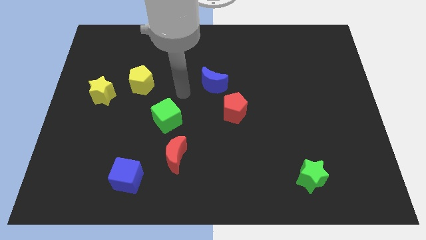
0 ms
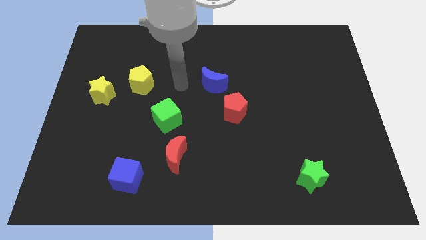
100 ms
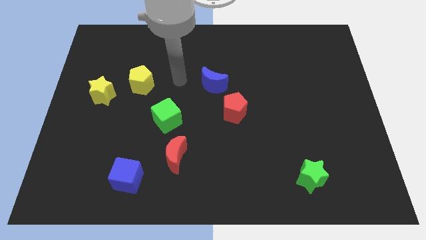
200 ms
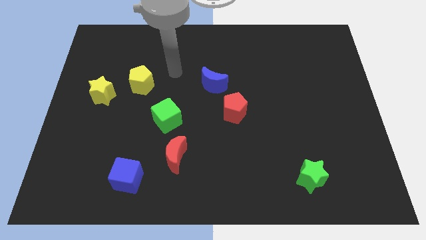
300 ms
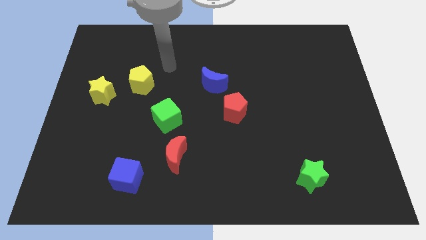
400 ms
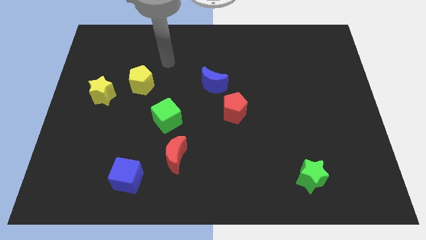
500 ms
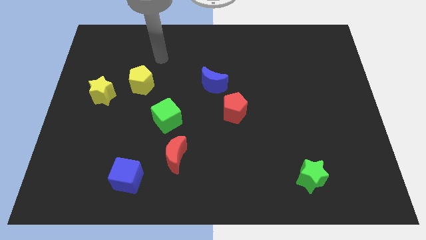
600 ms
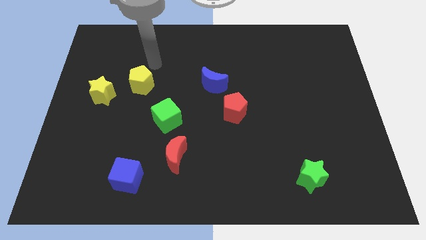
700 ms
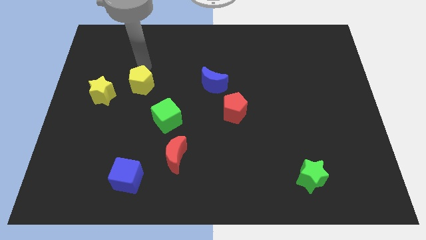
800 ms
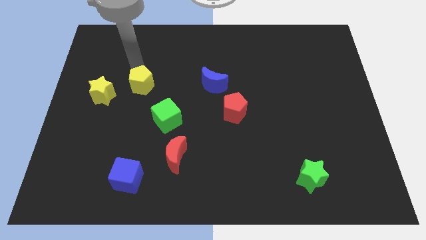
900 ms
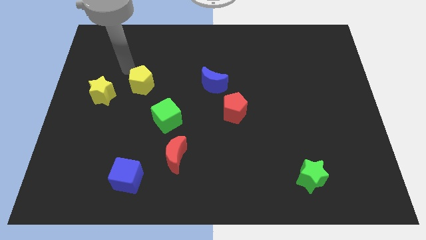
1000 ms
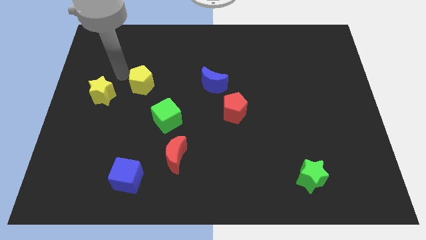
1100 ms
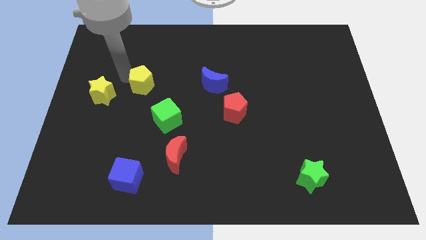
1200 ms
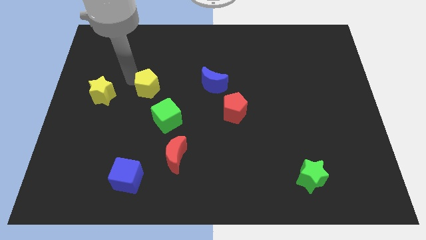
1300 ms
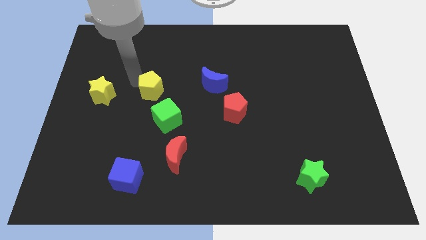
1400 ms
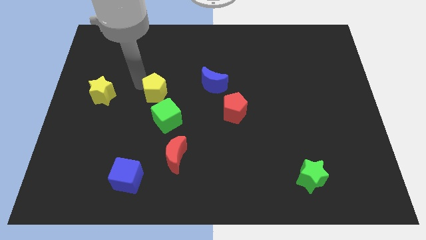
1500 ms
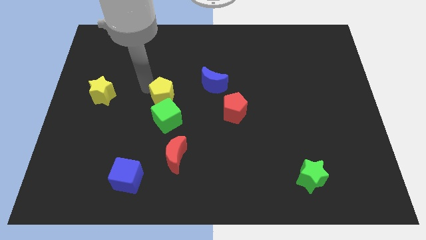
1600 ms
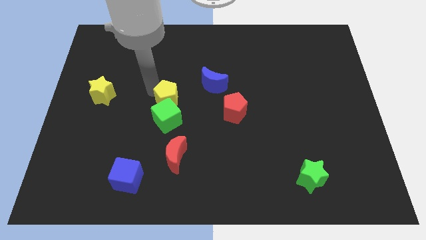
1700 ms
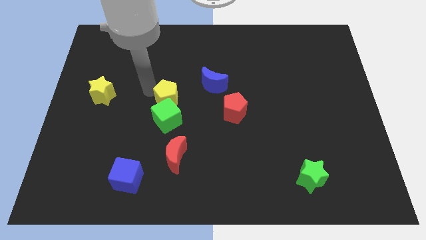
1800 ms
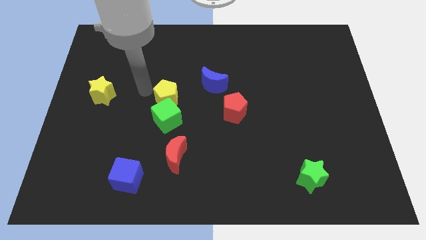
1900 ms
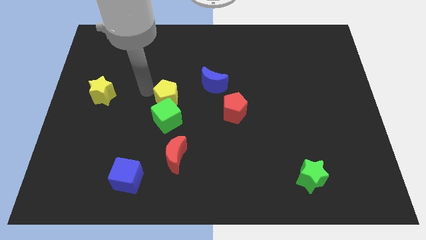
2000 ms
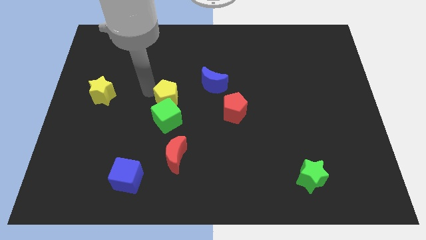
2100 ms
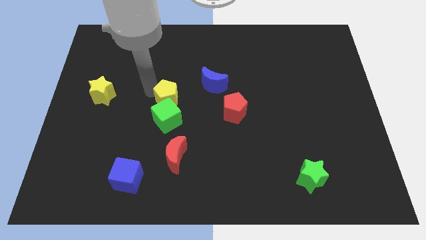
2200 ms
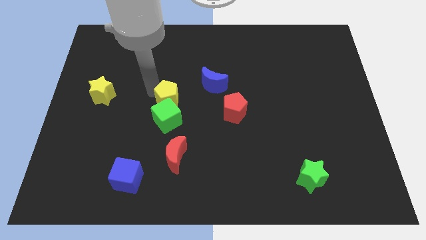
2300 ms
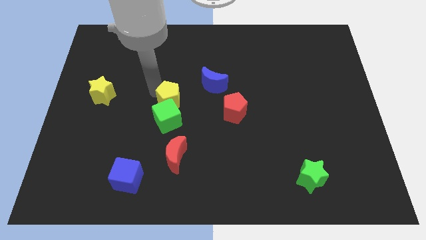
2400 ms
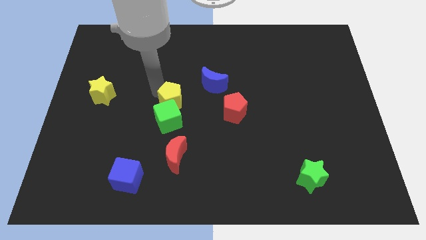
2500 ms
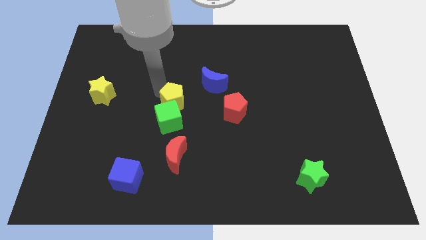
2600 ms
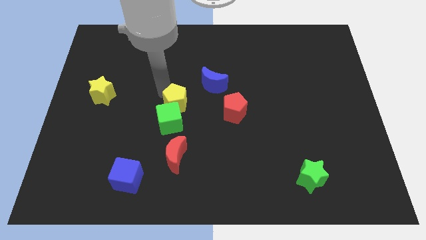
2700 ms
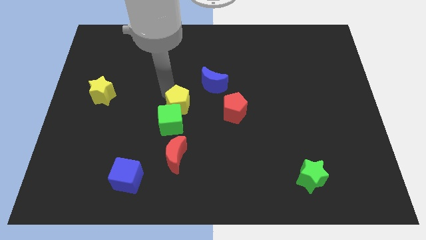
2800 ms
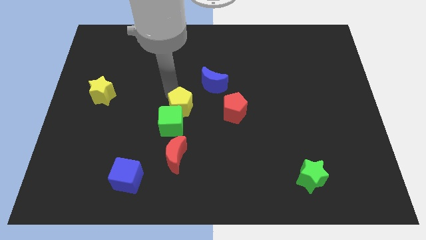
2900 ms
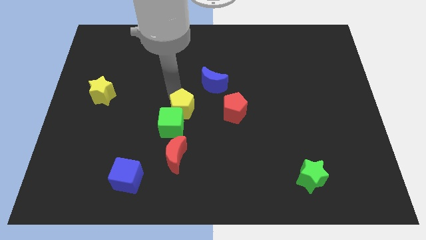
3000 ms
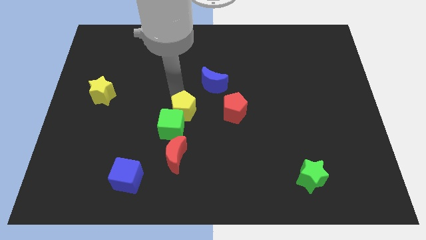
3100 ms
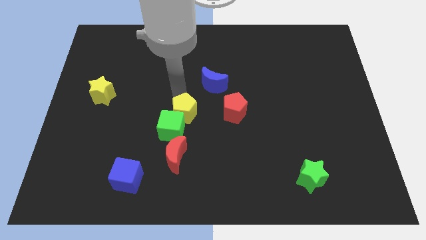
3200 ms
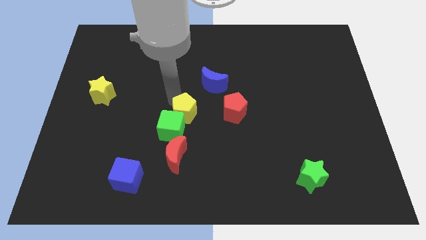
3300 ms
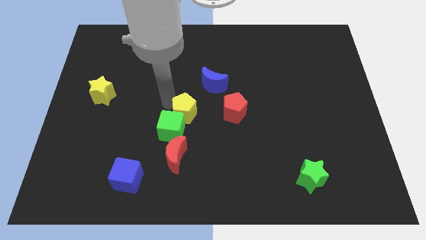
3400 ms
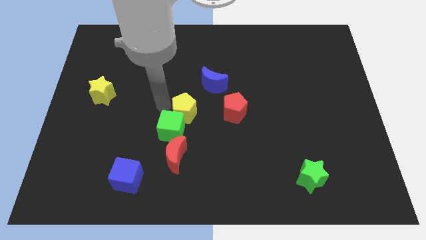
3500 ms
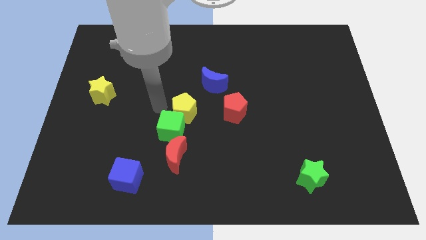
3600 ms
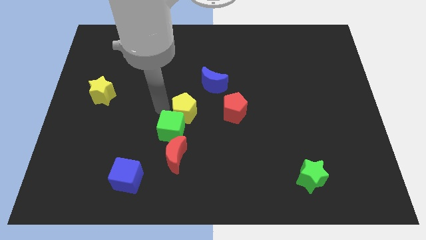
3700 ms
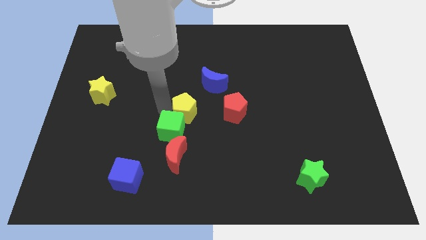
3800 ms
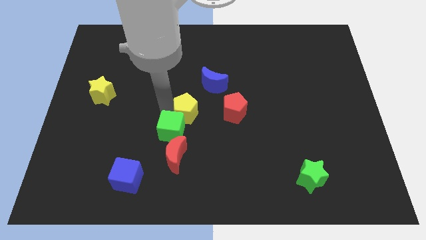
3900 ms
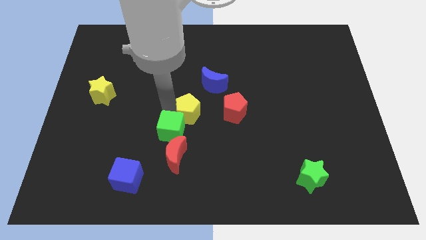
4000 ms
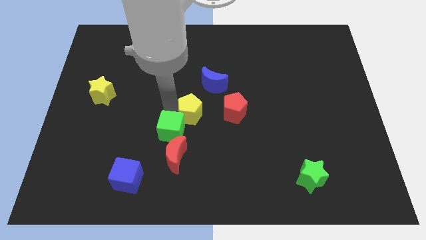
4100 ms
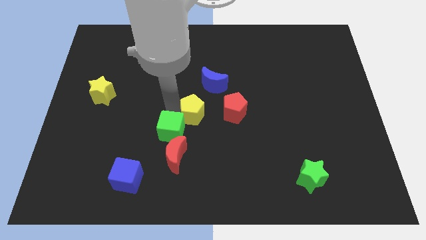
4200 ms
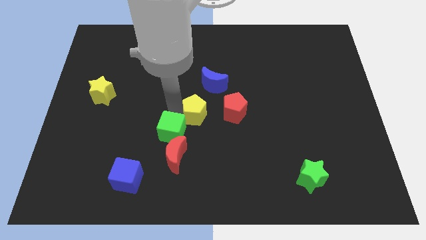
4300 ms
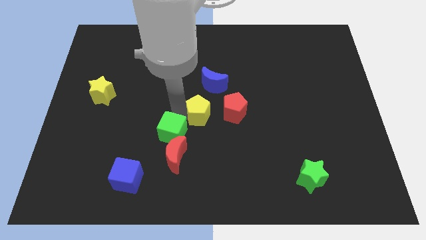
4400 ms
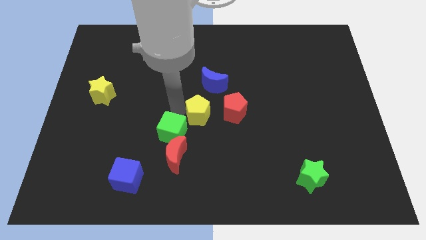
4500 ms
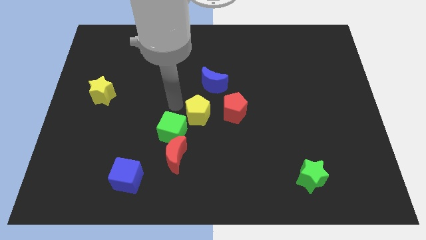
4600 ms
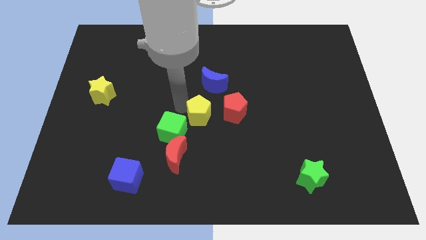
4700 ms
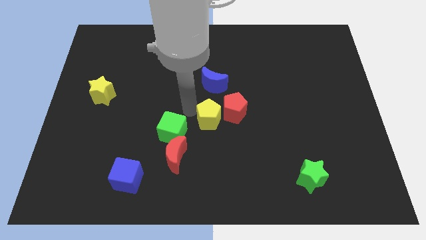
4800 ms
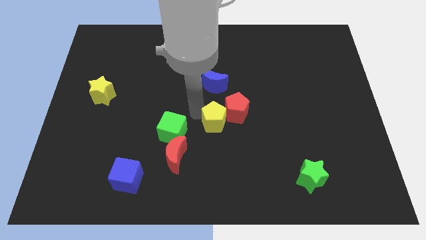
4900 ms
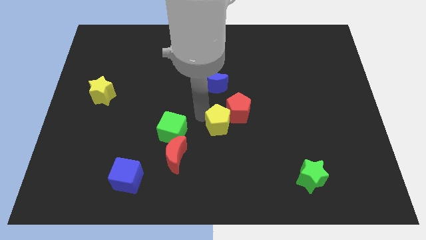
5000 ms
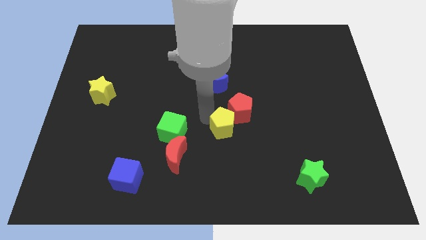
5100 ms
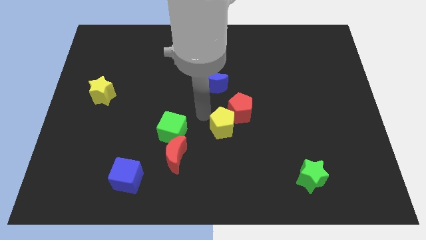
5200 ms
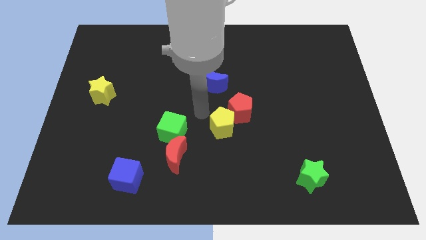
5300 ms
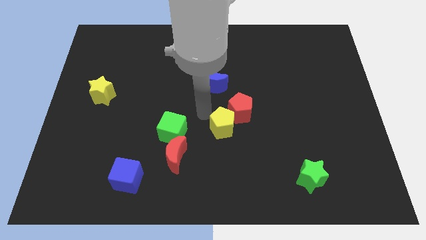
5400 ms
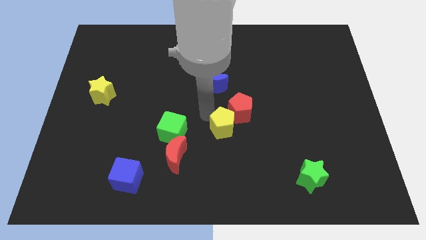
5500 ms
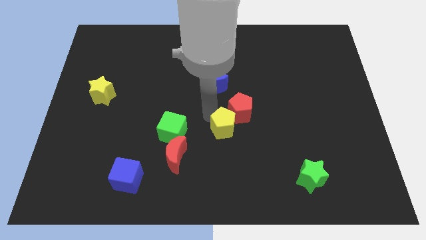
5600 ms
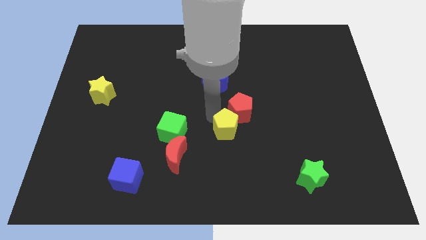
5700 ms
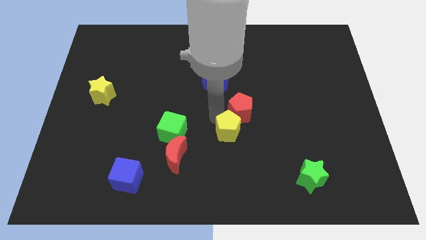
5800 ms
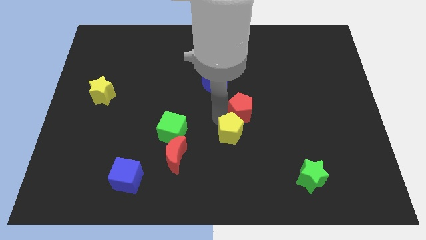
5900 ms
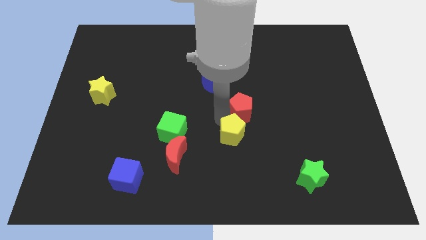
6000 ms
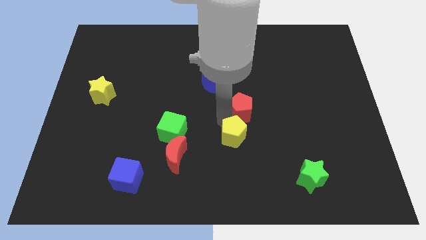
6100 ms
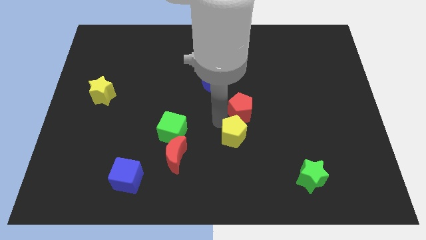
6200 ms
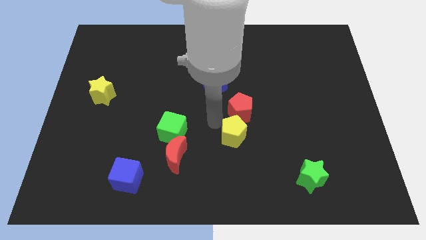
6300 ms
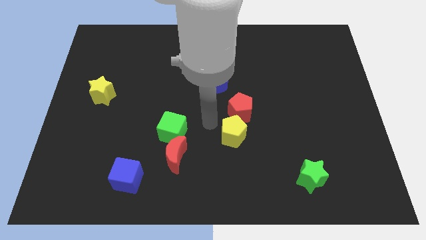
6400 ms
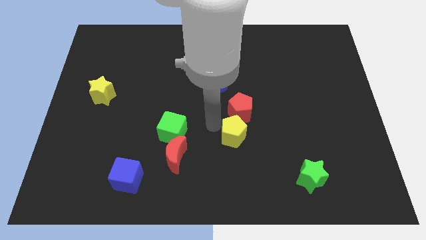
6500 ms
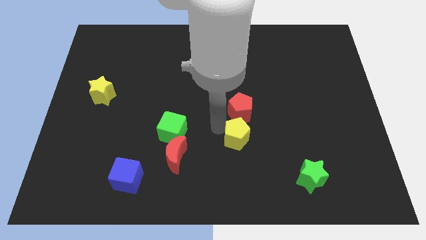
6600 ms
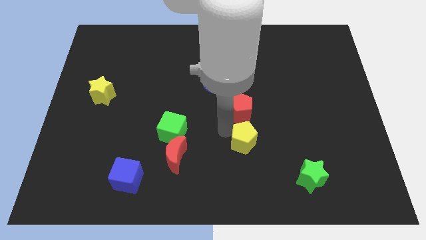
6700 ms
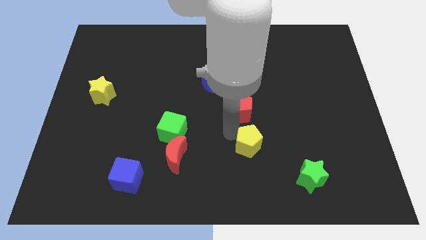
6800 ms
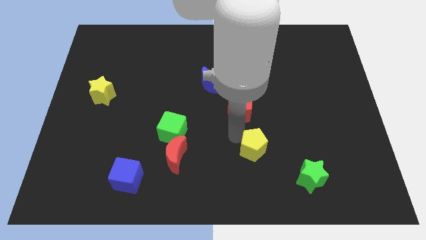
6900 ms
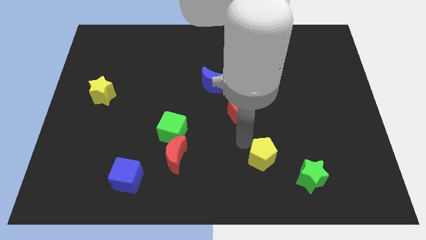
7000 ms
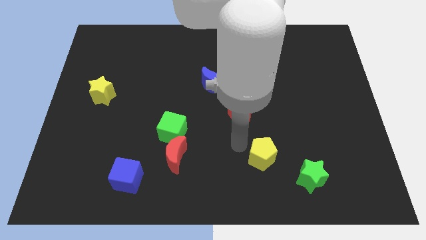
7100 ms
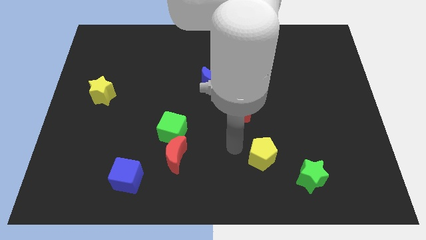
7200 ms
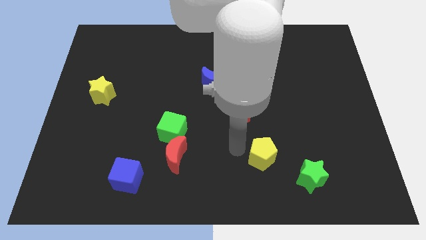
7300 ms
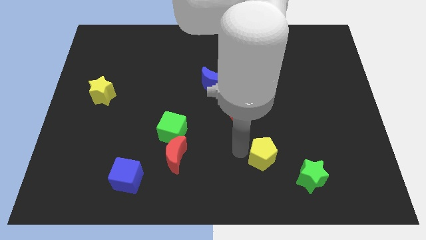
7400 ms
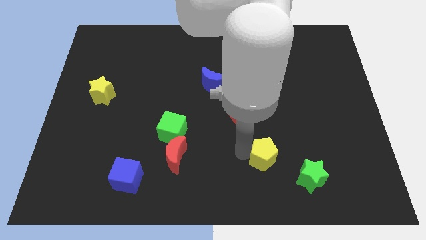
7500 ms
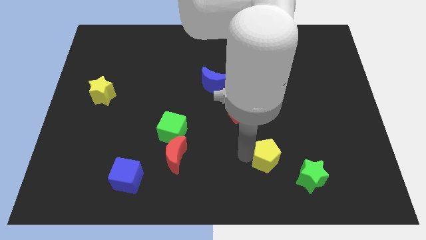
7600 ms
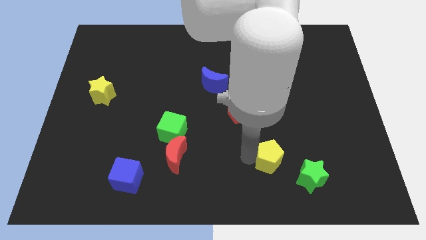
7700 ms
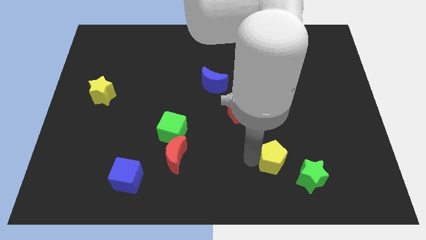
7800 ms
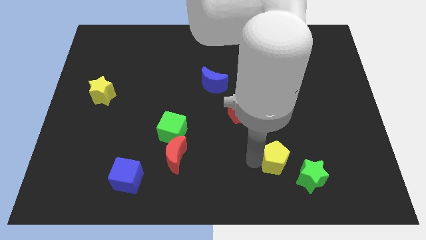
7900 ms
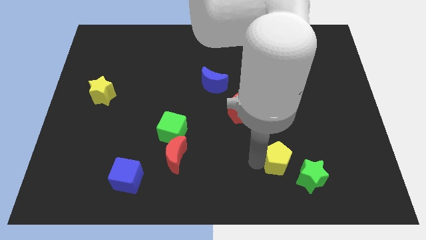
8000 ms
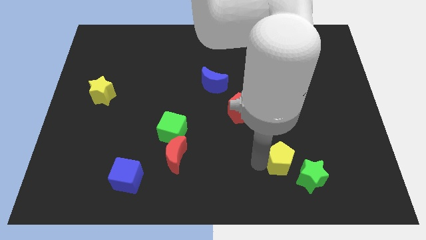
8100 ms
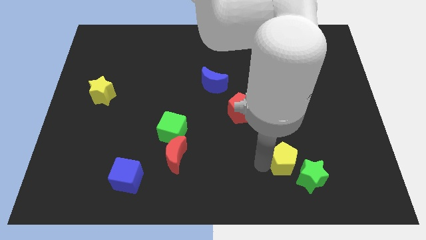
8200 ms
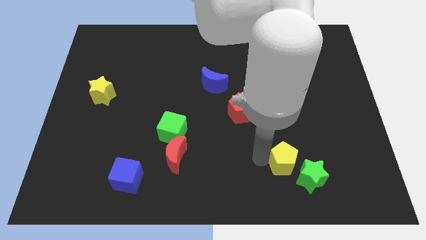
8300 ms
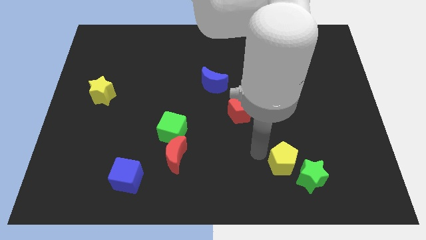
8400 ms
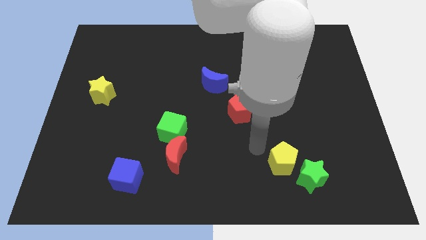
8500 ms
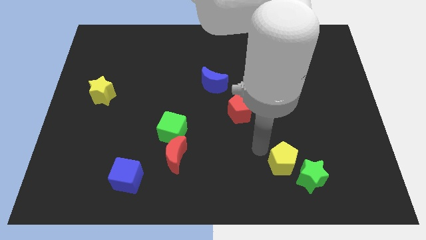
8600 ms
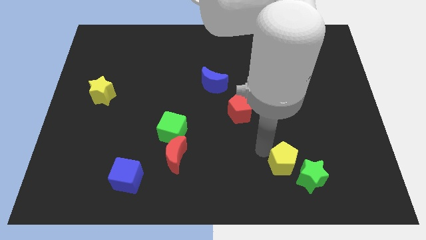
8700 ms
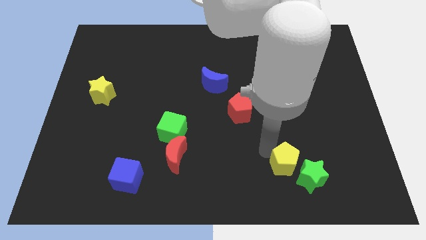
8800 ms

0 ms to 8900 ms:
move the yellow pentagon to the green star
